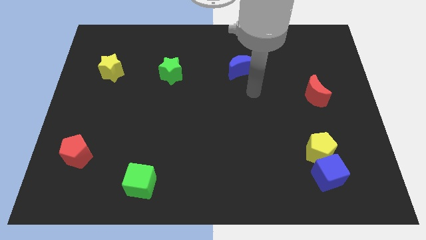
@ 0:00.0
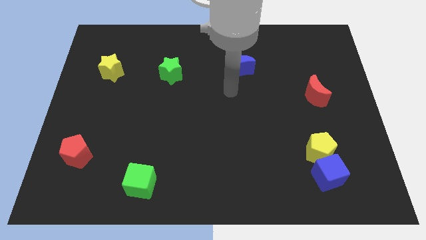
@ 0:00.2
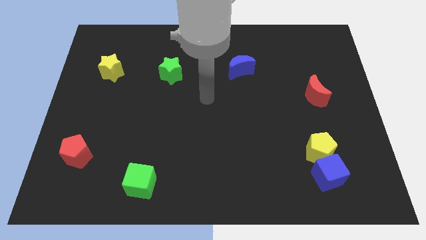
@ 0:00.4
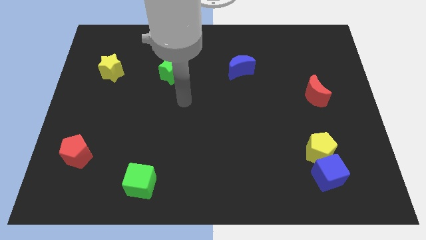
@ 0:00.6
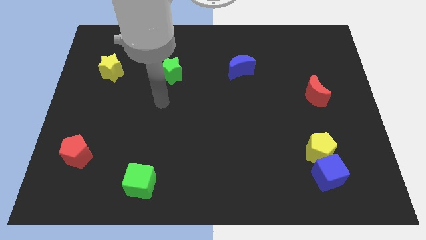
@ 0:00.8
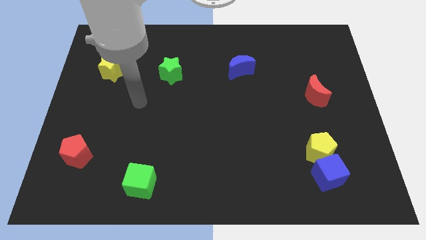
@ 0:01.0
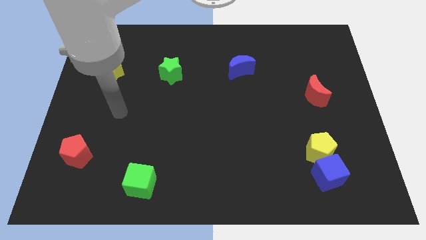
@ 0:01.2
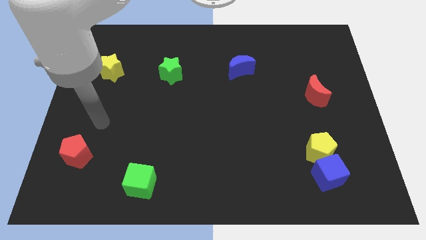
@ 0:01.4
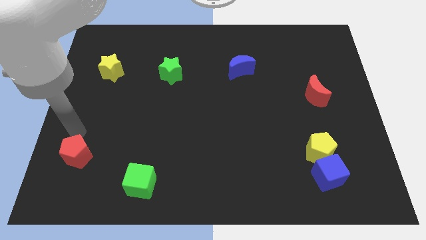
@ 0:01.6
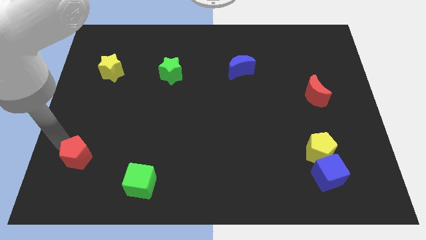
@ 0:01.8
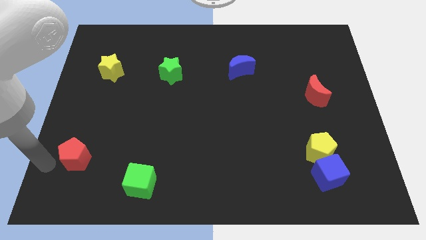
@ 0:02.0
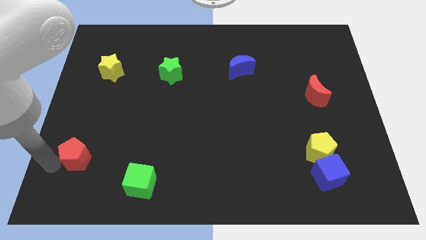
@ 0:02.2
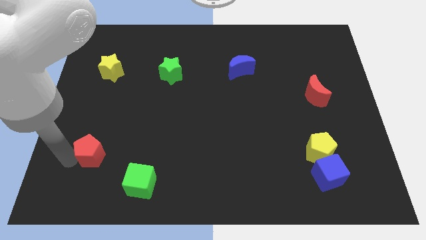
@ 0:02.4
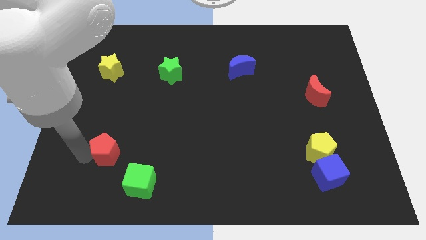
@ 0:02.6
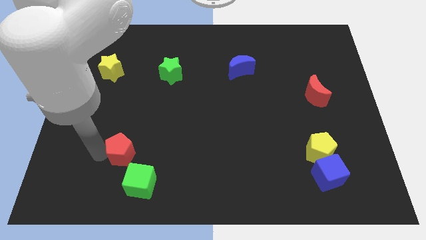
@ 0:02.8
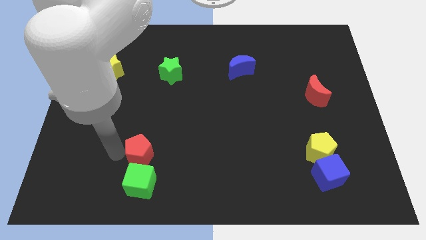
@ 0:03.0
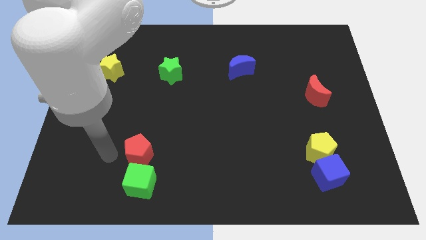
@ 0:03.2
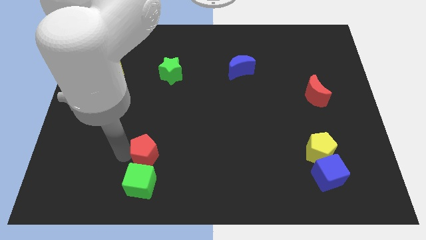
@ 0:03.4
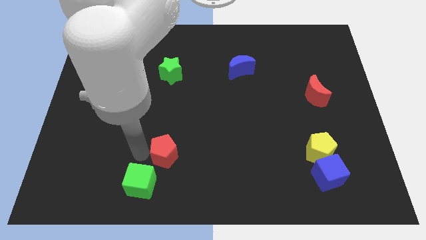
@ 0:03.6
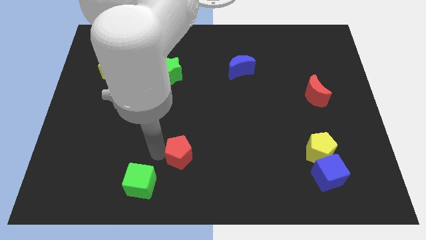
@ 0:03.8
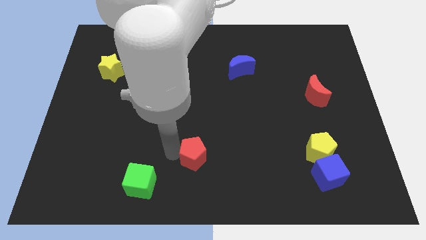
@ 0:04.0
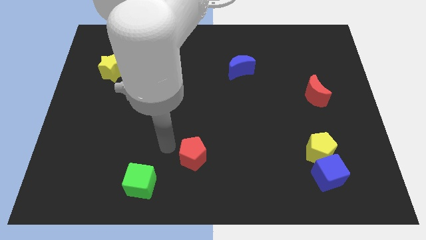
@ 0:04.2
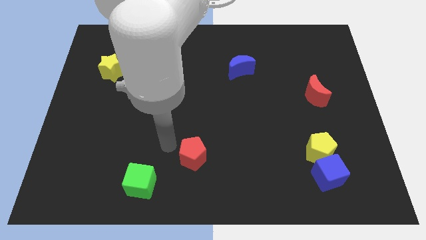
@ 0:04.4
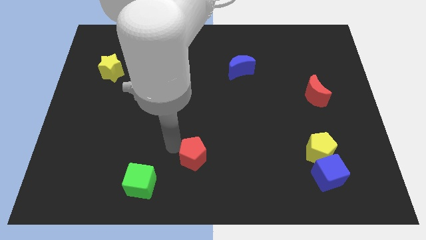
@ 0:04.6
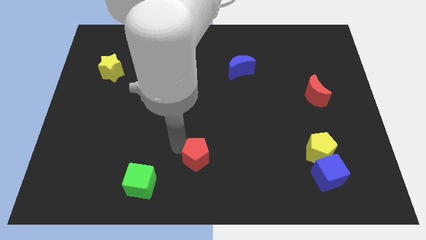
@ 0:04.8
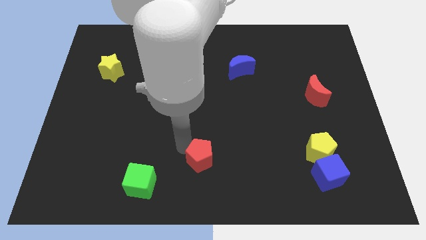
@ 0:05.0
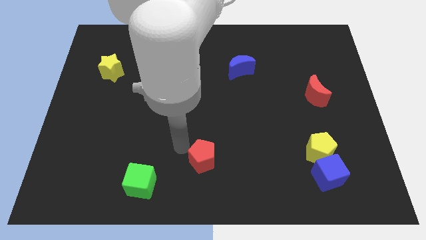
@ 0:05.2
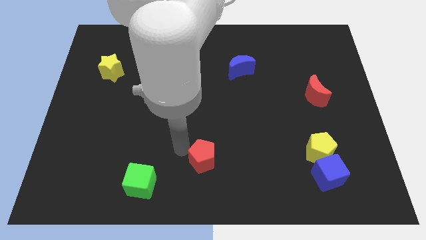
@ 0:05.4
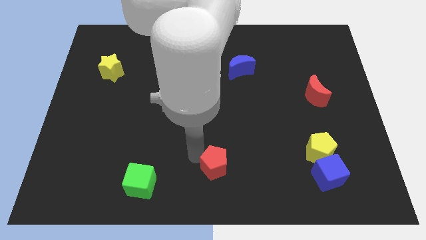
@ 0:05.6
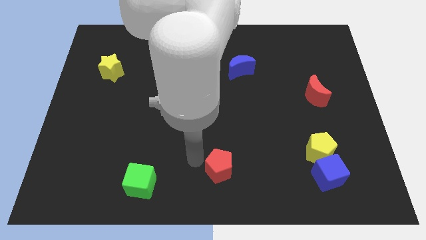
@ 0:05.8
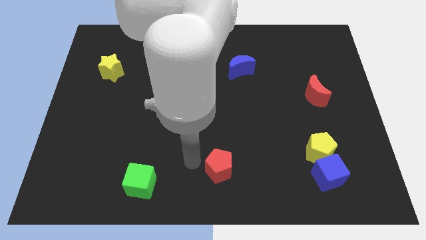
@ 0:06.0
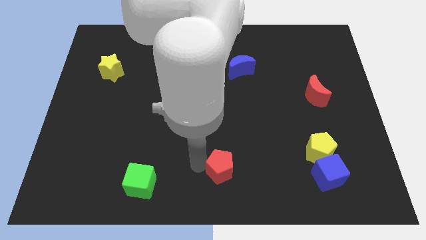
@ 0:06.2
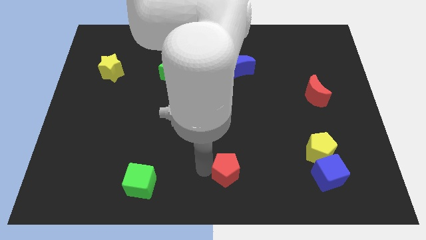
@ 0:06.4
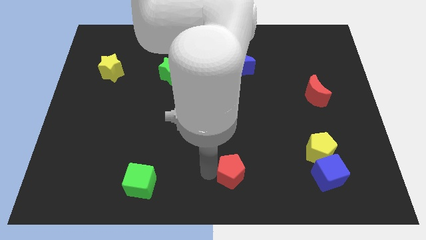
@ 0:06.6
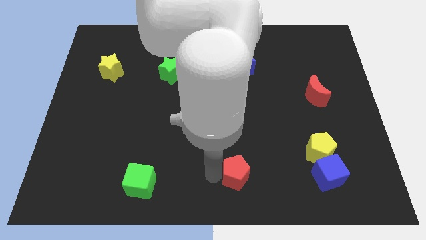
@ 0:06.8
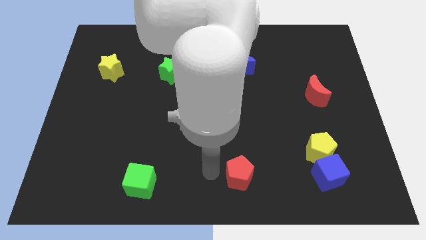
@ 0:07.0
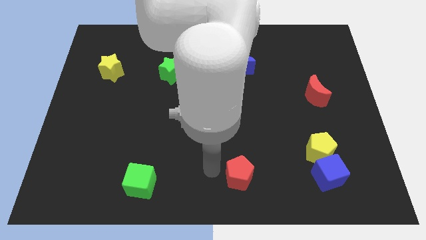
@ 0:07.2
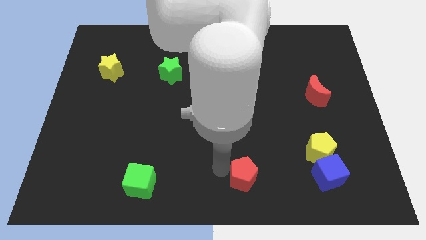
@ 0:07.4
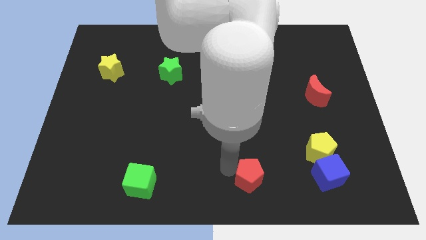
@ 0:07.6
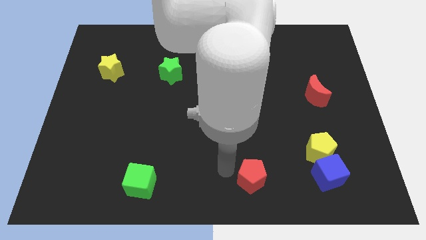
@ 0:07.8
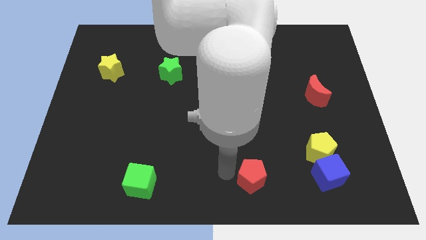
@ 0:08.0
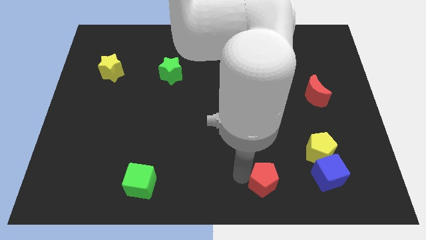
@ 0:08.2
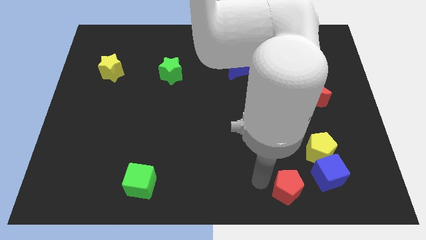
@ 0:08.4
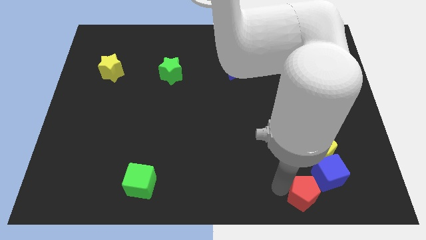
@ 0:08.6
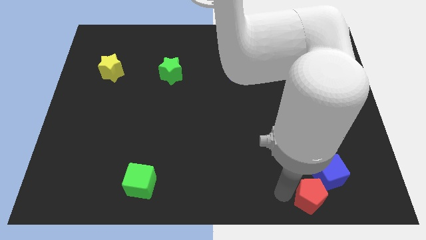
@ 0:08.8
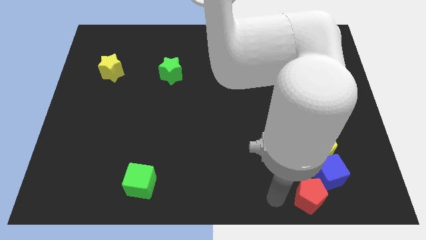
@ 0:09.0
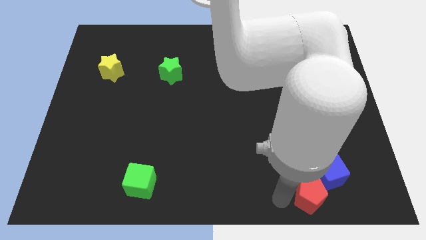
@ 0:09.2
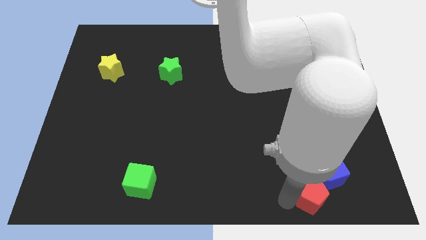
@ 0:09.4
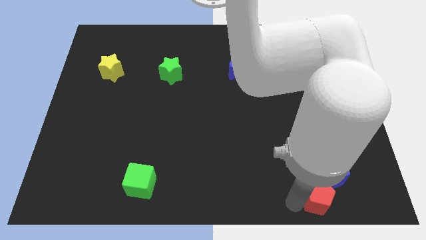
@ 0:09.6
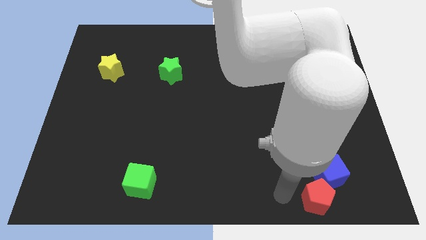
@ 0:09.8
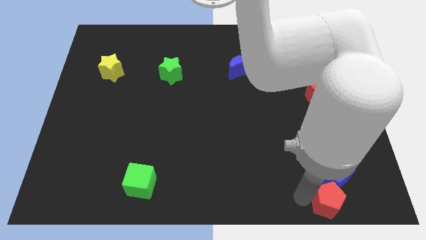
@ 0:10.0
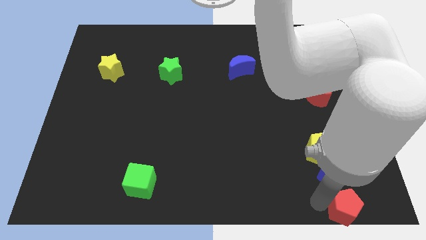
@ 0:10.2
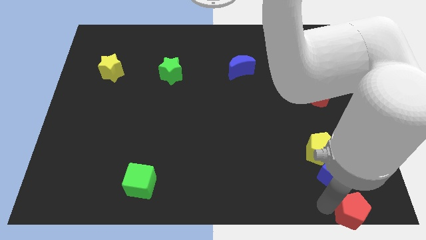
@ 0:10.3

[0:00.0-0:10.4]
push the red pentagon to the bottom right corner

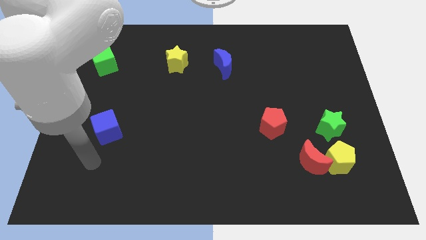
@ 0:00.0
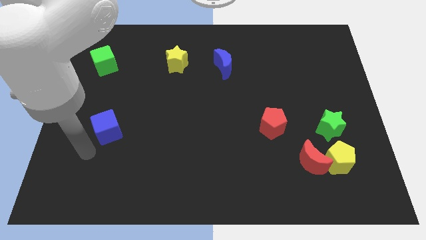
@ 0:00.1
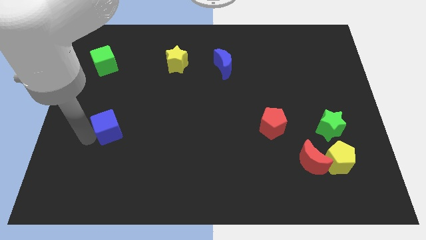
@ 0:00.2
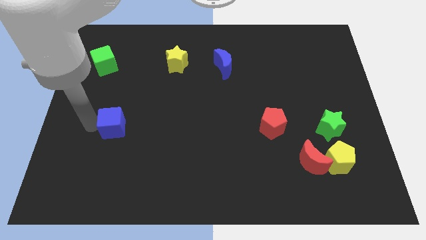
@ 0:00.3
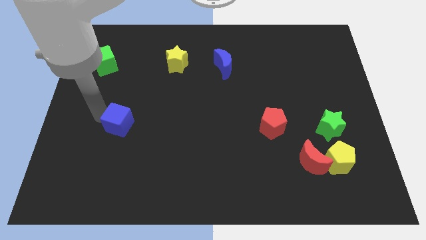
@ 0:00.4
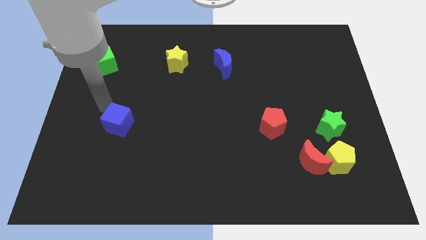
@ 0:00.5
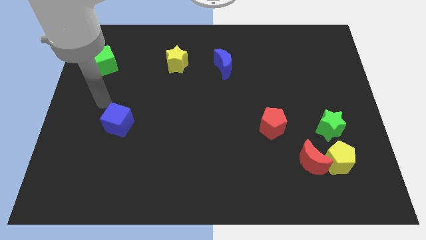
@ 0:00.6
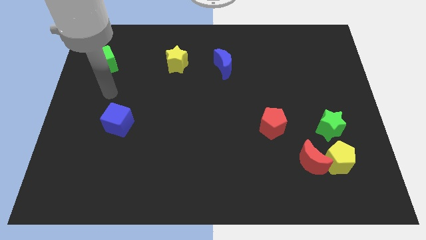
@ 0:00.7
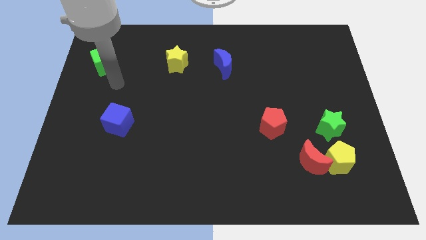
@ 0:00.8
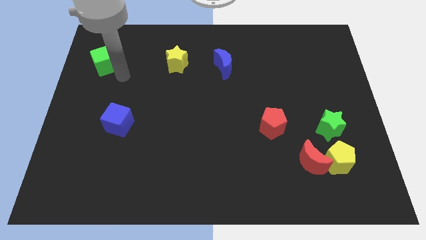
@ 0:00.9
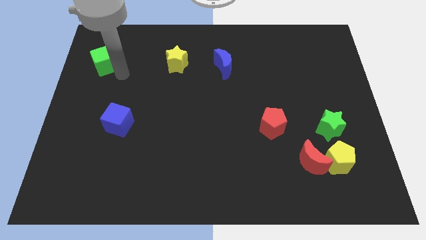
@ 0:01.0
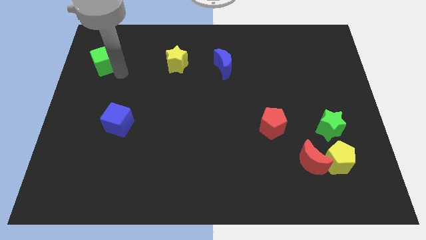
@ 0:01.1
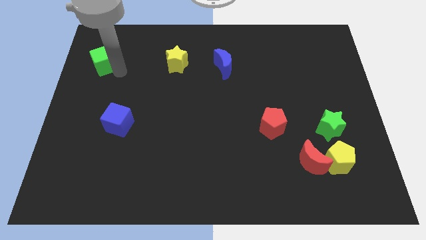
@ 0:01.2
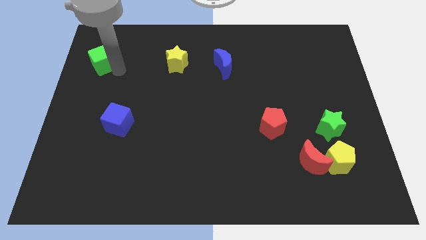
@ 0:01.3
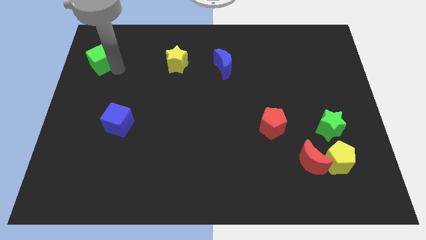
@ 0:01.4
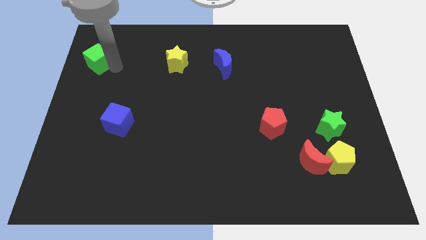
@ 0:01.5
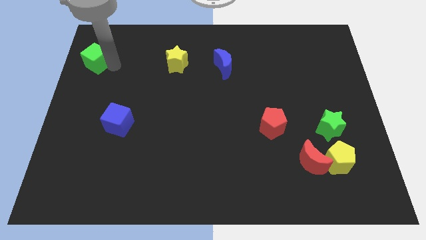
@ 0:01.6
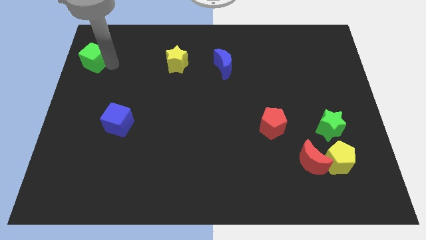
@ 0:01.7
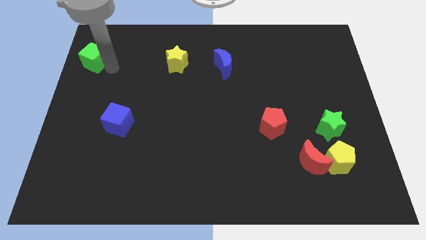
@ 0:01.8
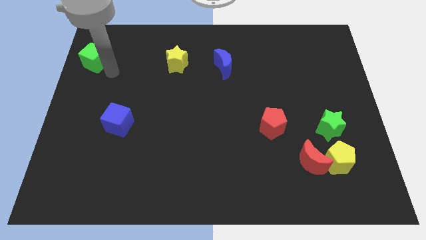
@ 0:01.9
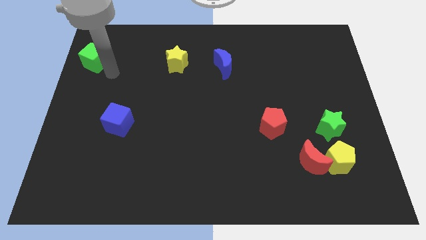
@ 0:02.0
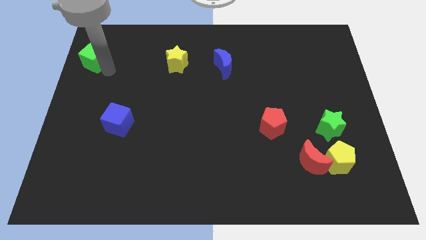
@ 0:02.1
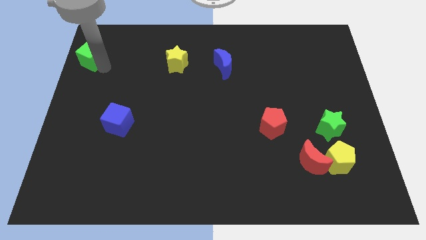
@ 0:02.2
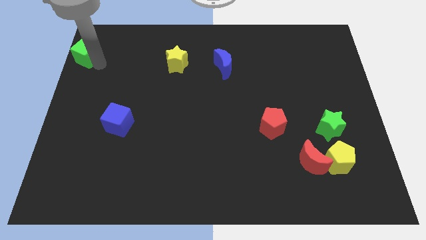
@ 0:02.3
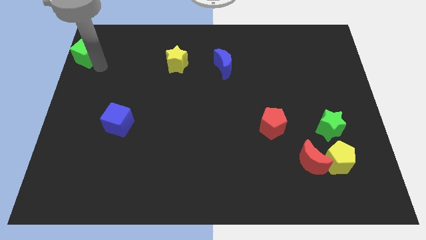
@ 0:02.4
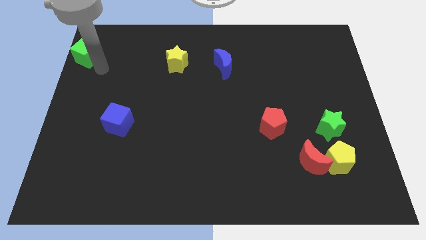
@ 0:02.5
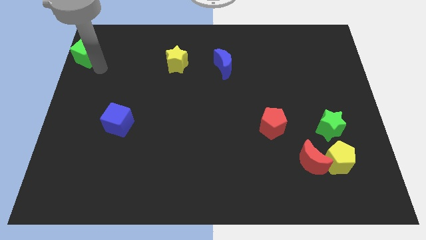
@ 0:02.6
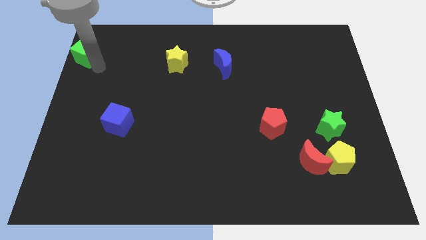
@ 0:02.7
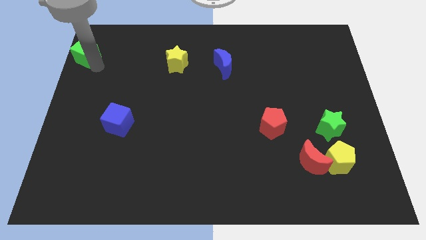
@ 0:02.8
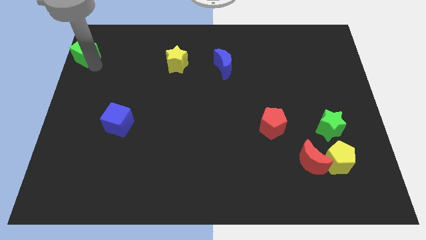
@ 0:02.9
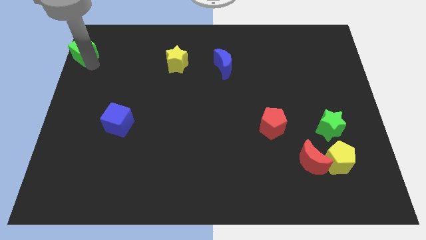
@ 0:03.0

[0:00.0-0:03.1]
slide the green cube to the upper left corner
